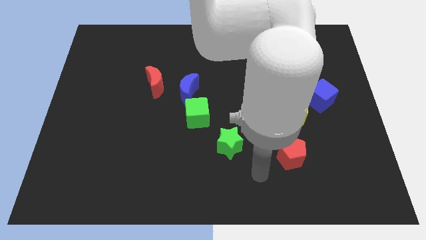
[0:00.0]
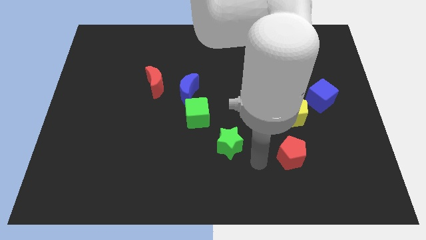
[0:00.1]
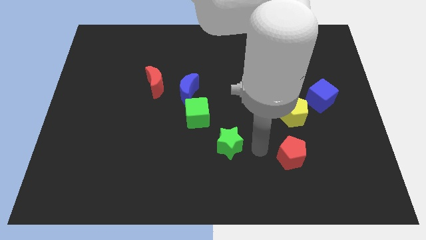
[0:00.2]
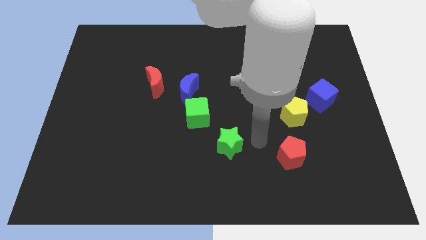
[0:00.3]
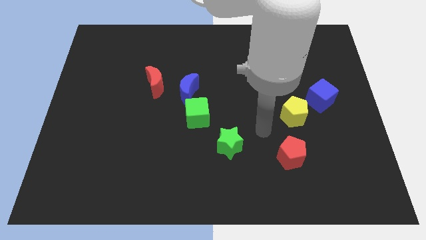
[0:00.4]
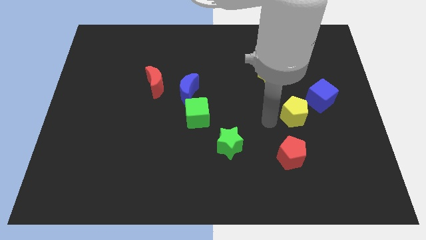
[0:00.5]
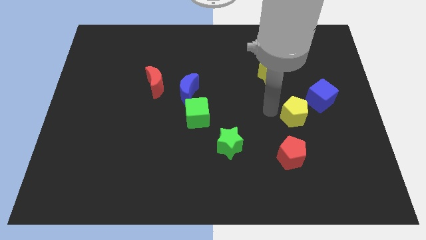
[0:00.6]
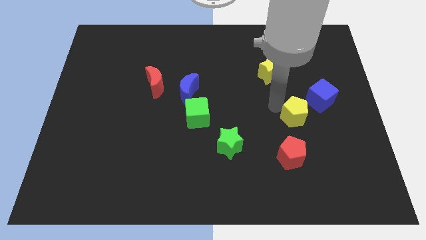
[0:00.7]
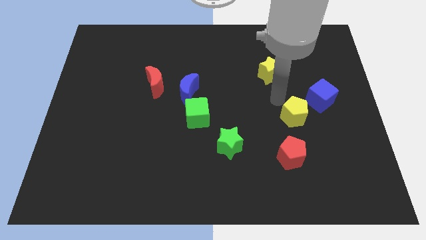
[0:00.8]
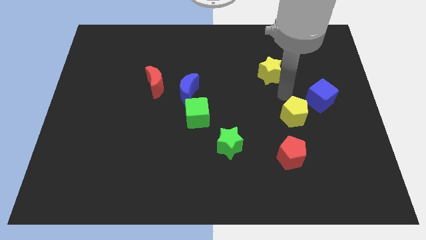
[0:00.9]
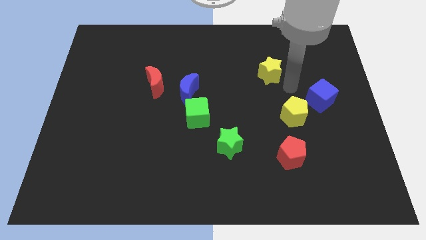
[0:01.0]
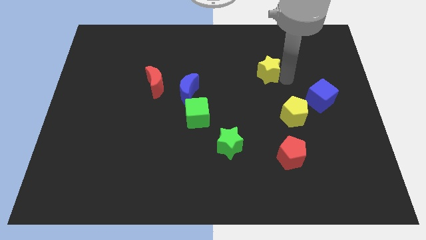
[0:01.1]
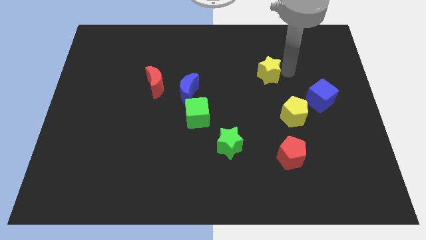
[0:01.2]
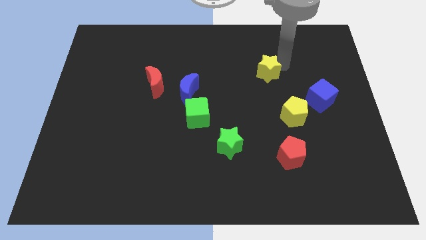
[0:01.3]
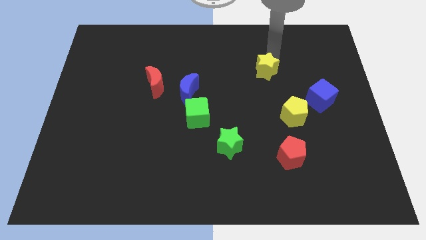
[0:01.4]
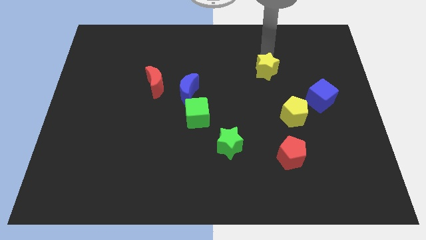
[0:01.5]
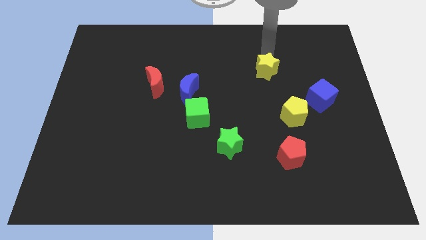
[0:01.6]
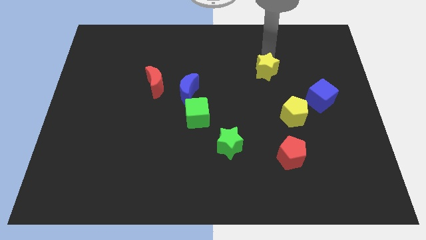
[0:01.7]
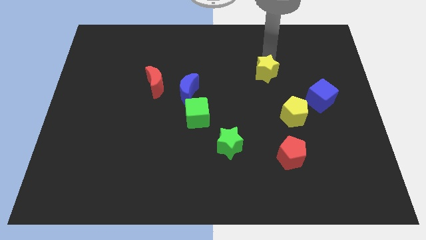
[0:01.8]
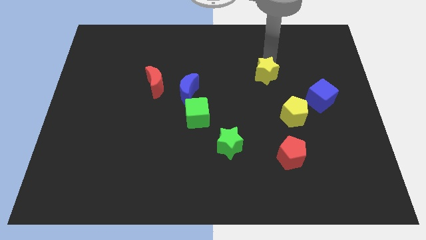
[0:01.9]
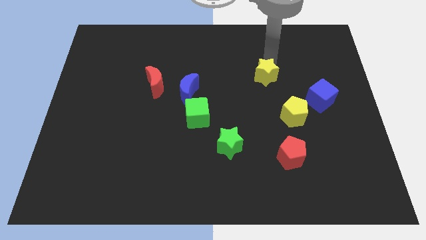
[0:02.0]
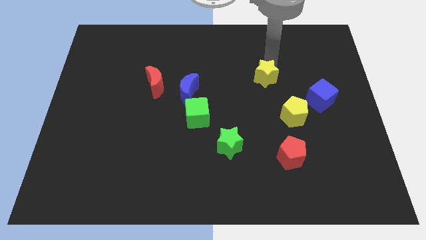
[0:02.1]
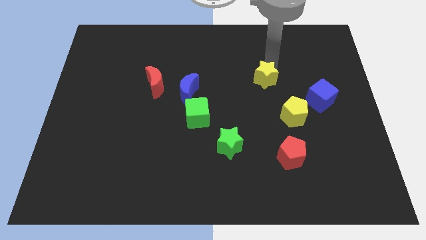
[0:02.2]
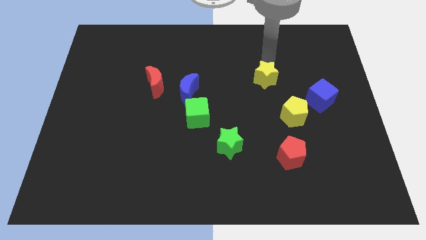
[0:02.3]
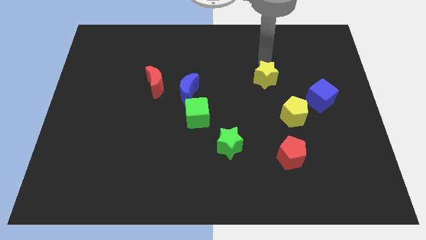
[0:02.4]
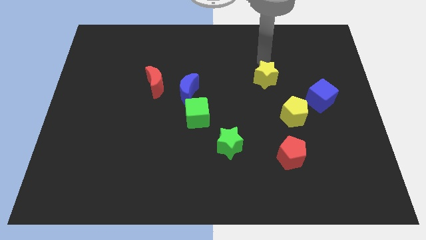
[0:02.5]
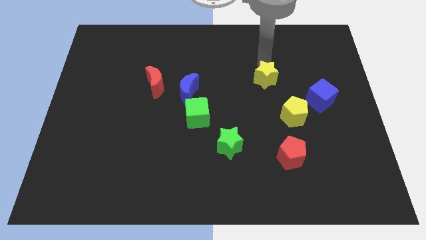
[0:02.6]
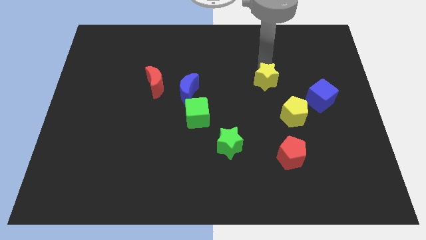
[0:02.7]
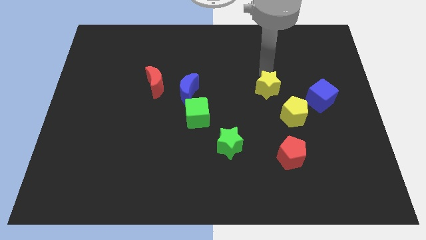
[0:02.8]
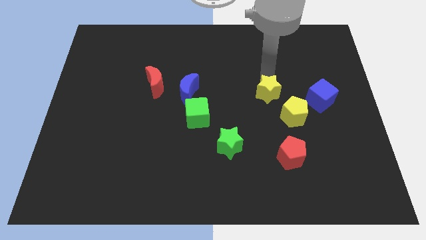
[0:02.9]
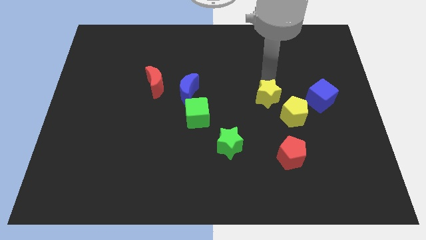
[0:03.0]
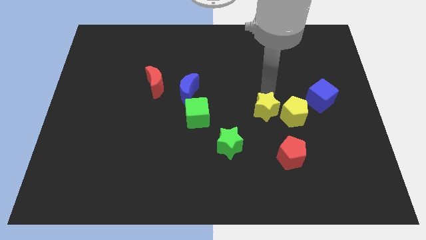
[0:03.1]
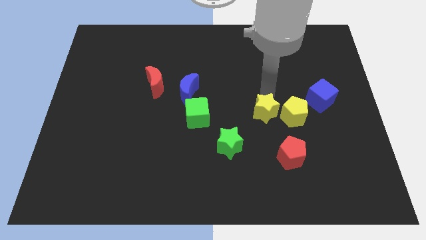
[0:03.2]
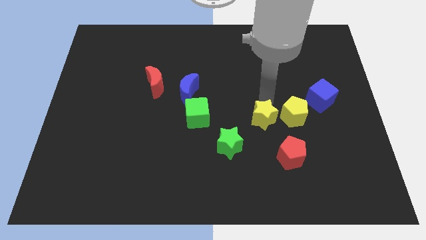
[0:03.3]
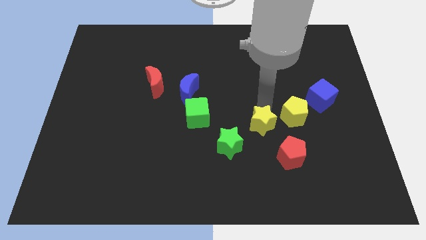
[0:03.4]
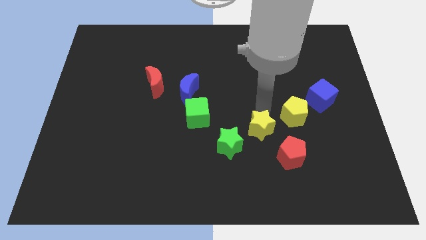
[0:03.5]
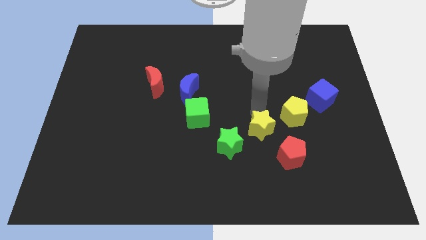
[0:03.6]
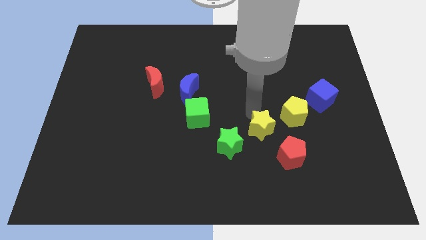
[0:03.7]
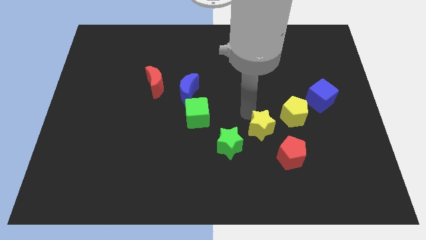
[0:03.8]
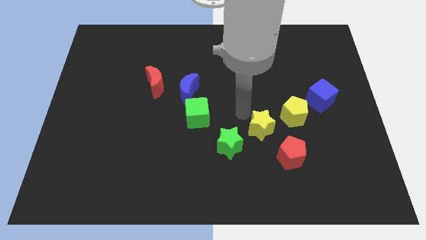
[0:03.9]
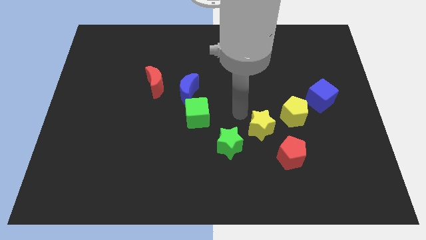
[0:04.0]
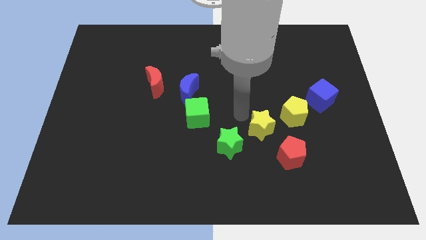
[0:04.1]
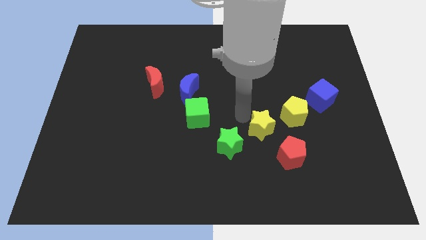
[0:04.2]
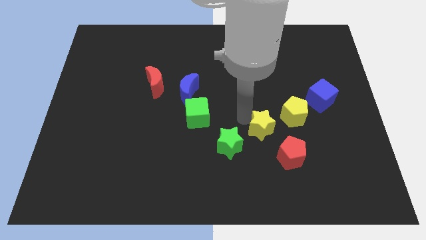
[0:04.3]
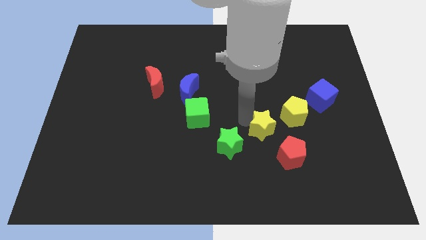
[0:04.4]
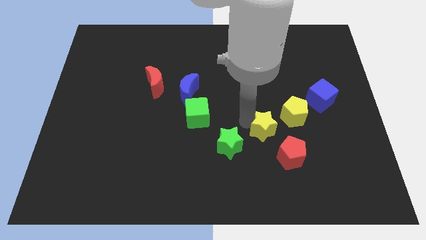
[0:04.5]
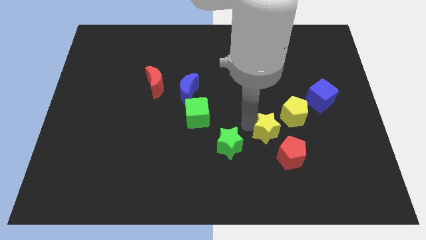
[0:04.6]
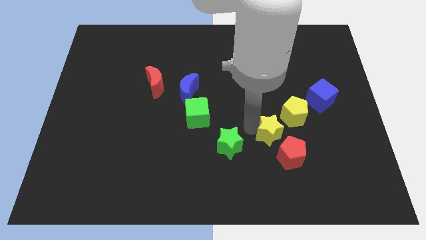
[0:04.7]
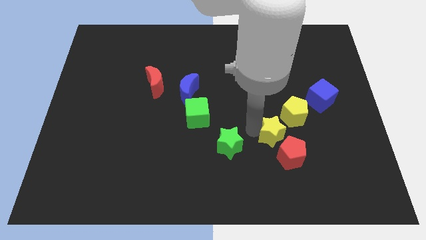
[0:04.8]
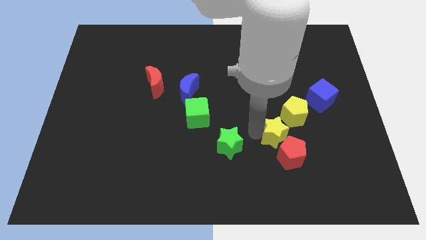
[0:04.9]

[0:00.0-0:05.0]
slide the yellow star towards the red pentagon

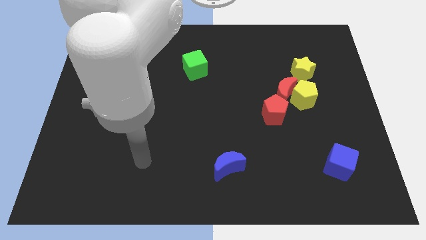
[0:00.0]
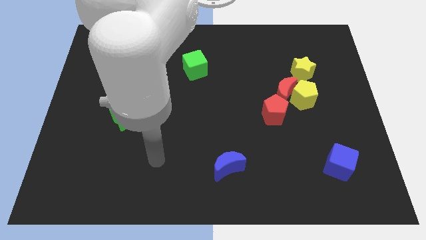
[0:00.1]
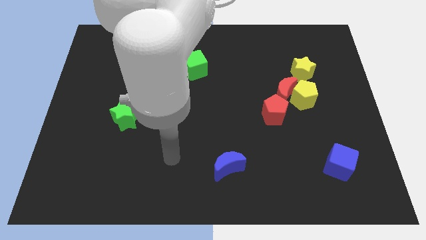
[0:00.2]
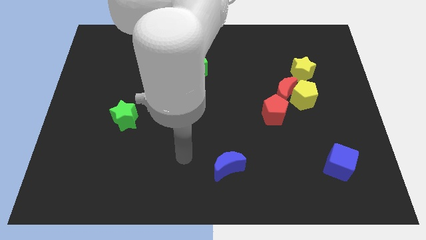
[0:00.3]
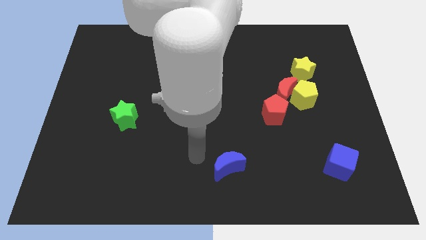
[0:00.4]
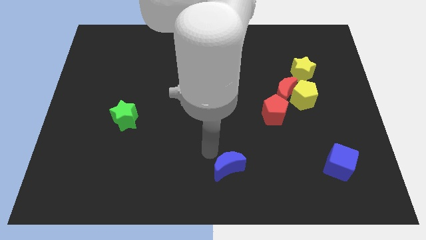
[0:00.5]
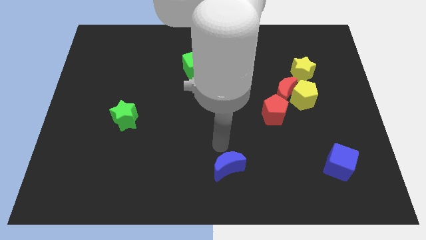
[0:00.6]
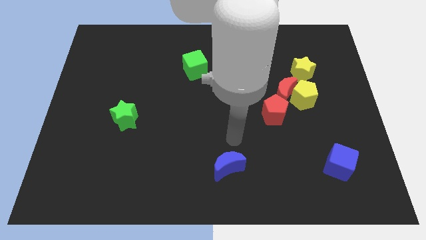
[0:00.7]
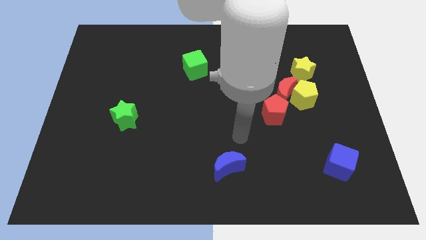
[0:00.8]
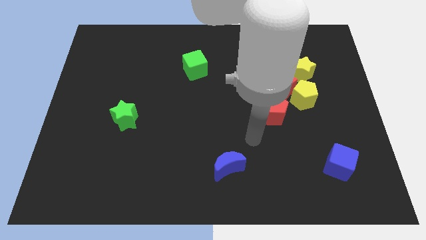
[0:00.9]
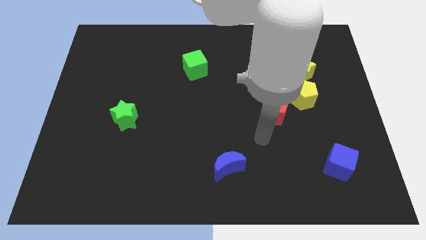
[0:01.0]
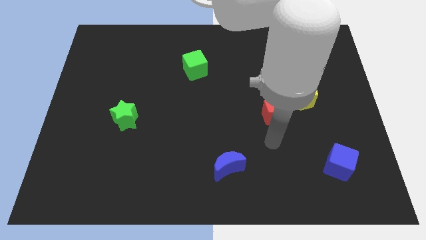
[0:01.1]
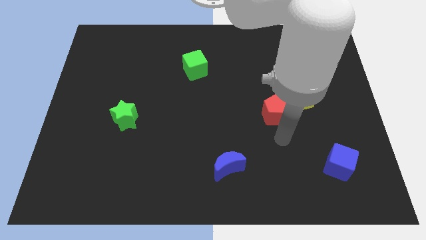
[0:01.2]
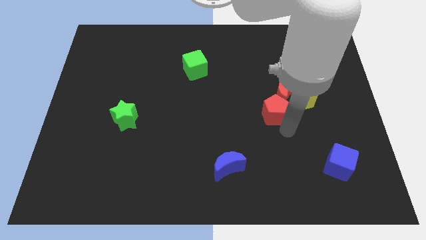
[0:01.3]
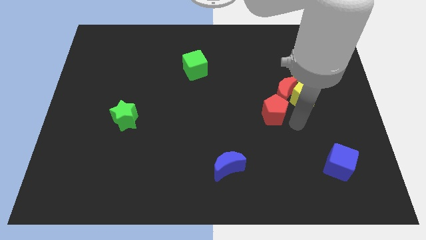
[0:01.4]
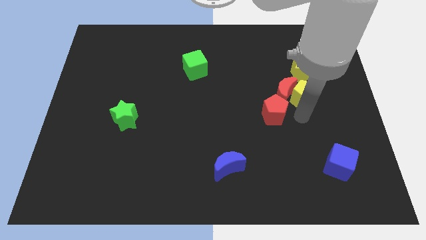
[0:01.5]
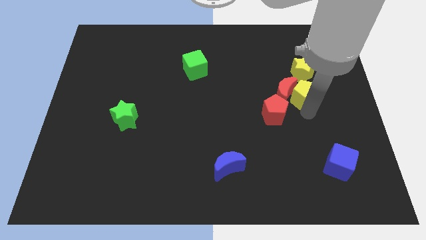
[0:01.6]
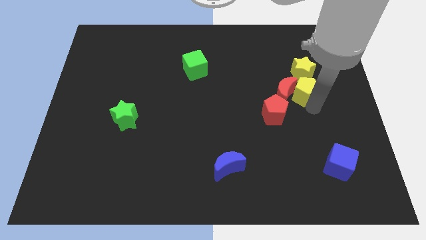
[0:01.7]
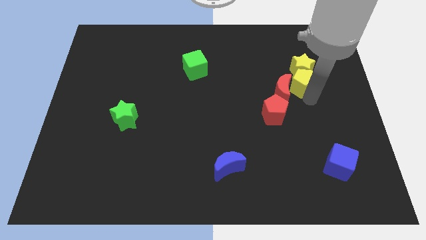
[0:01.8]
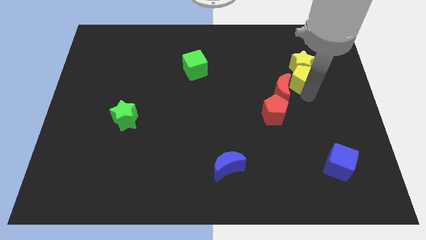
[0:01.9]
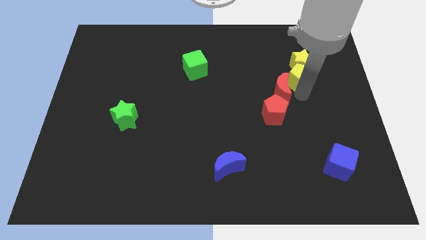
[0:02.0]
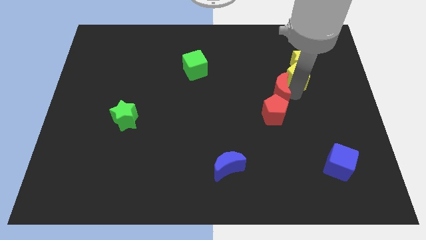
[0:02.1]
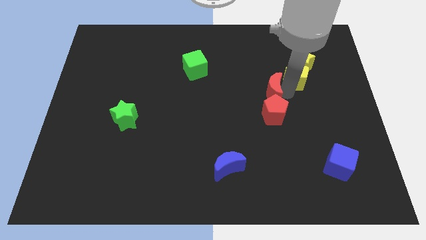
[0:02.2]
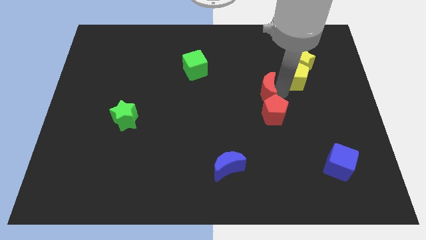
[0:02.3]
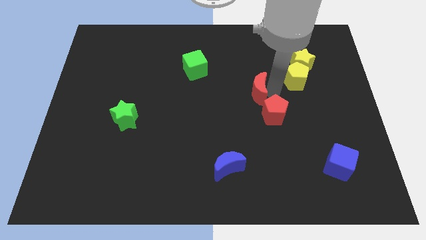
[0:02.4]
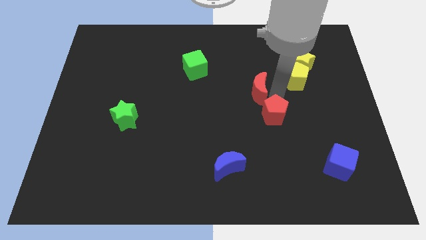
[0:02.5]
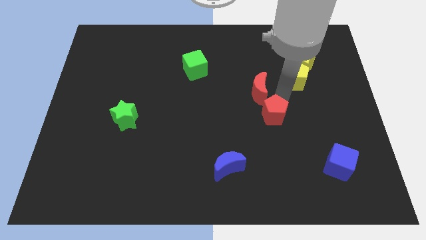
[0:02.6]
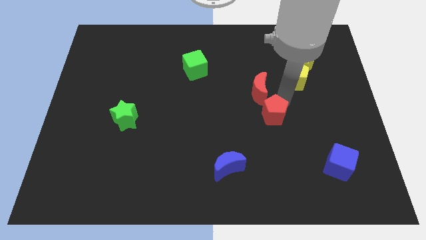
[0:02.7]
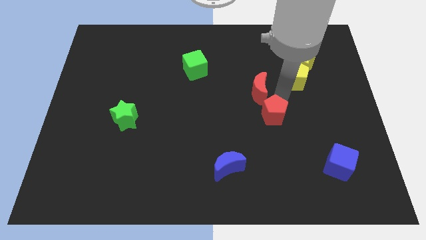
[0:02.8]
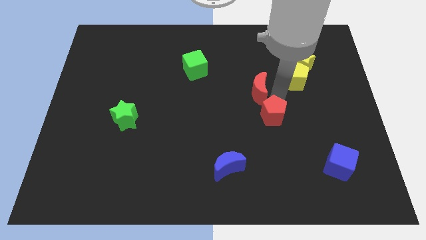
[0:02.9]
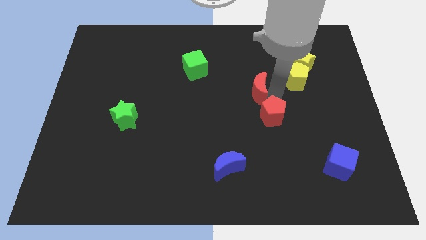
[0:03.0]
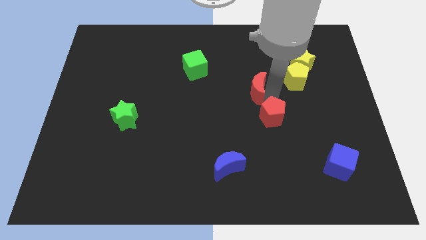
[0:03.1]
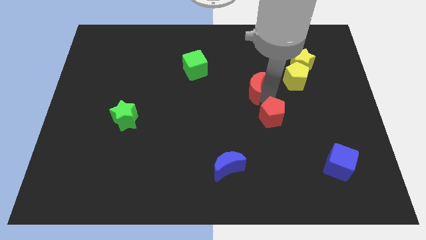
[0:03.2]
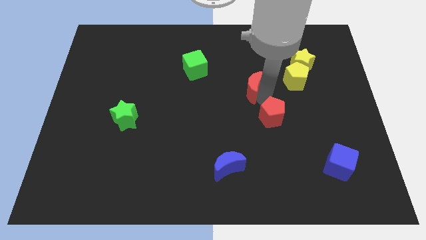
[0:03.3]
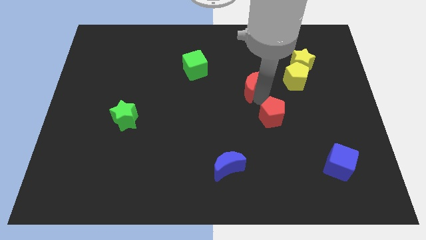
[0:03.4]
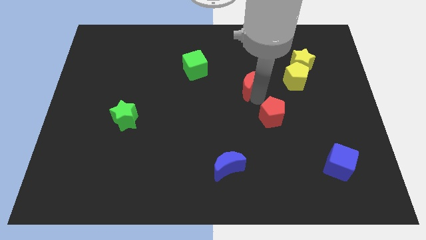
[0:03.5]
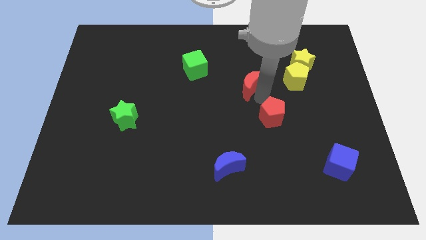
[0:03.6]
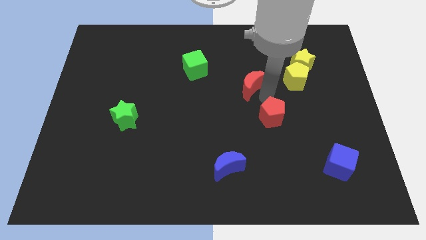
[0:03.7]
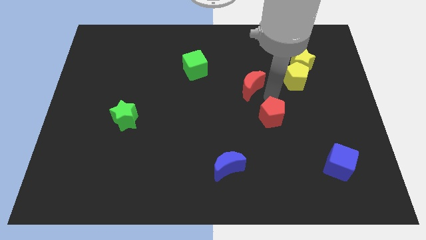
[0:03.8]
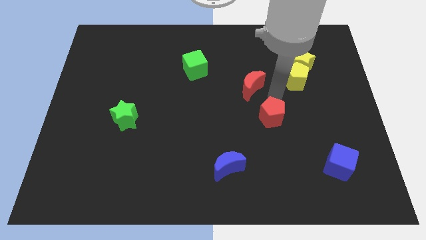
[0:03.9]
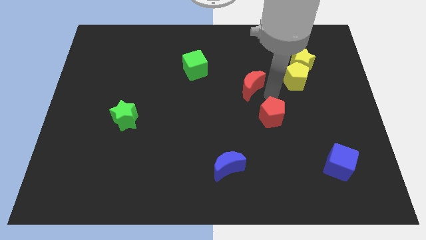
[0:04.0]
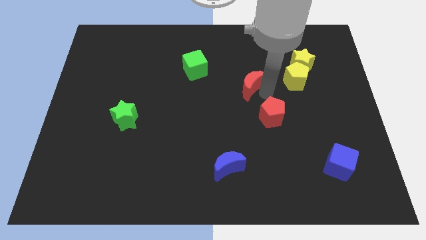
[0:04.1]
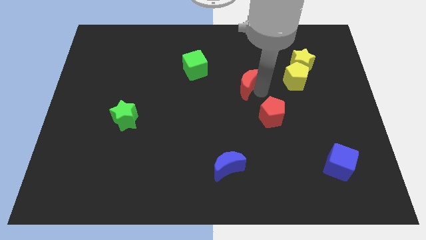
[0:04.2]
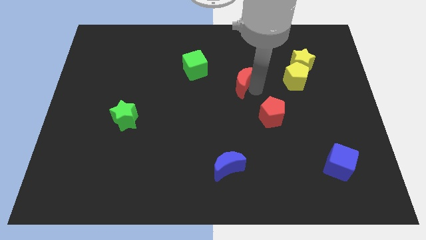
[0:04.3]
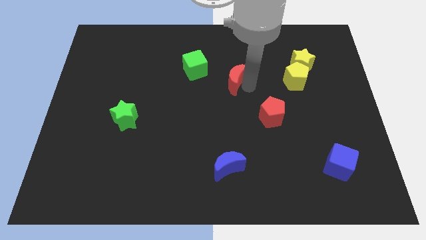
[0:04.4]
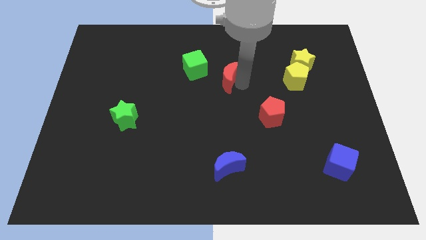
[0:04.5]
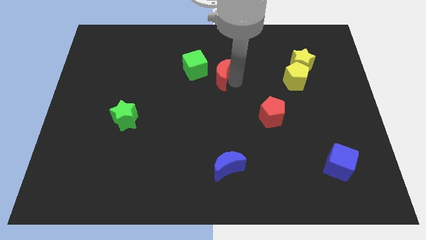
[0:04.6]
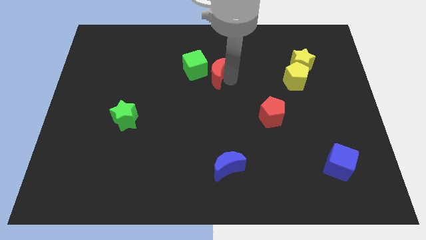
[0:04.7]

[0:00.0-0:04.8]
push the red moon next to the green cube
